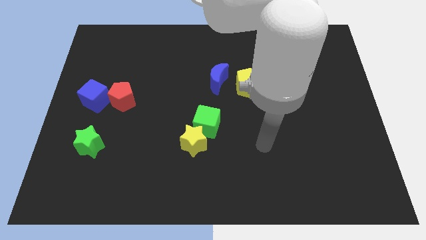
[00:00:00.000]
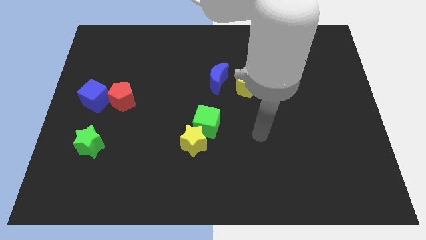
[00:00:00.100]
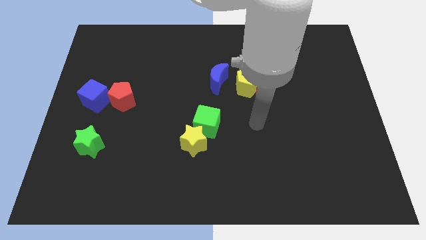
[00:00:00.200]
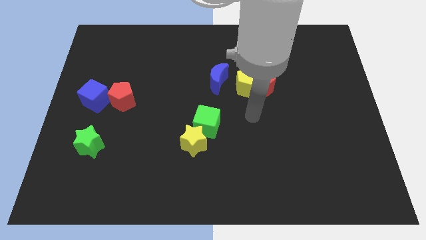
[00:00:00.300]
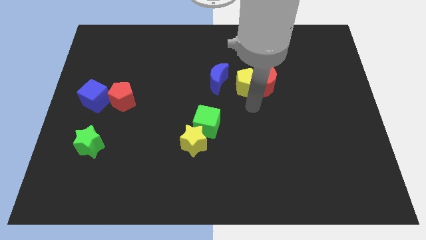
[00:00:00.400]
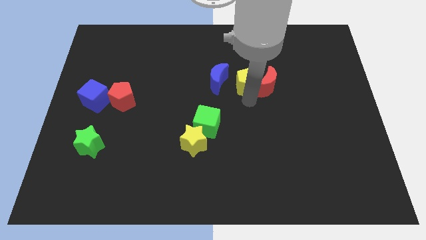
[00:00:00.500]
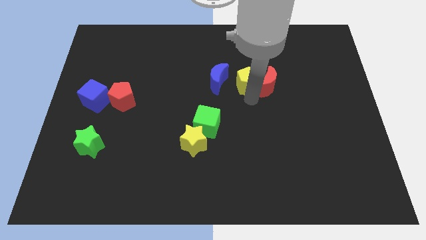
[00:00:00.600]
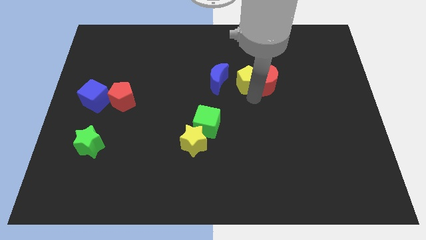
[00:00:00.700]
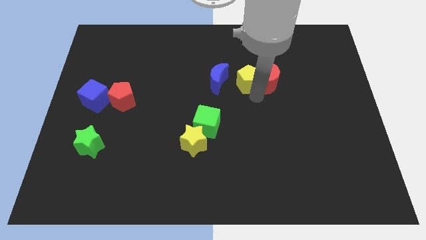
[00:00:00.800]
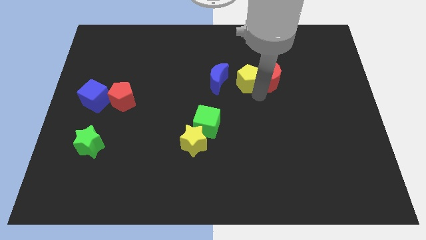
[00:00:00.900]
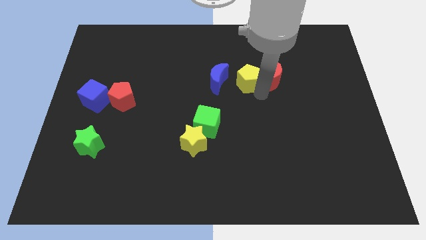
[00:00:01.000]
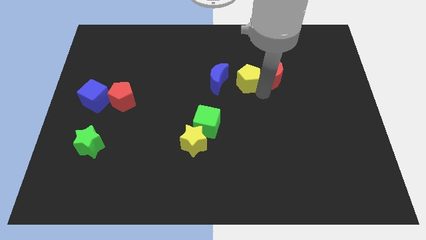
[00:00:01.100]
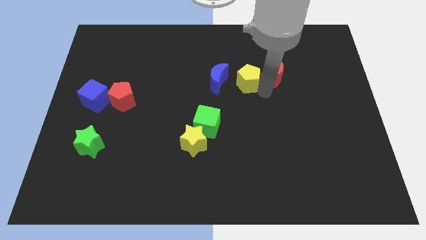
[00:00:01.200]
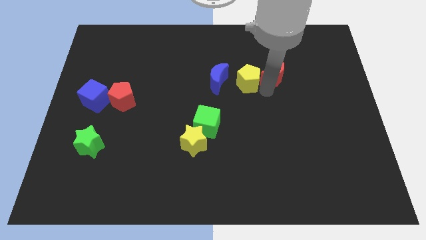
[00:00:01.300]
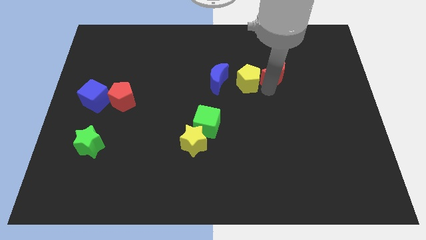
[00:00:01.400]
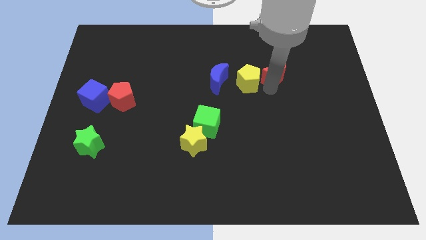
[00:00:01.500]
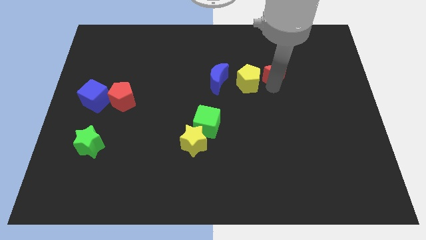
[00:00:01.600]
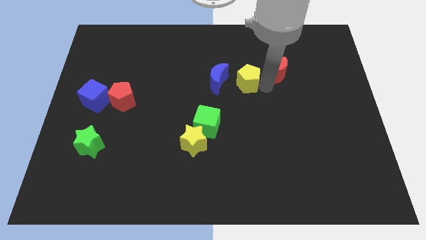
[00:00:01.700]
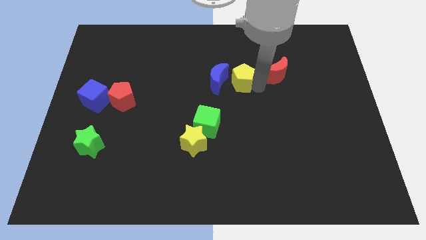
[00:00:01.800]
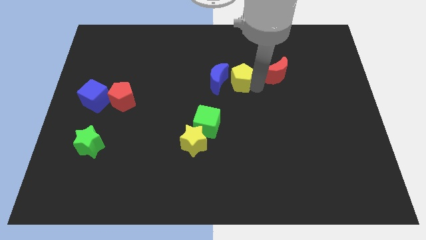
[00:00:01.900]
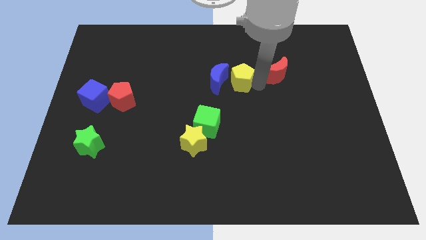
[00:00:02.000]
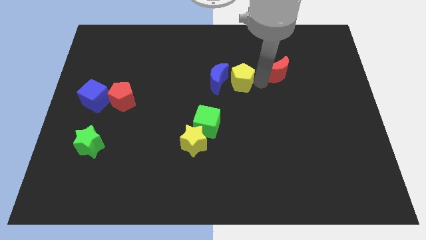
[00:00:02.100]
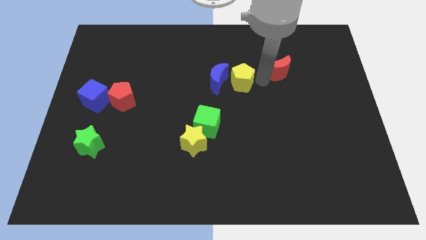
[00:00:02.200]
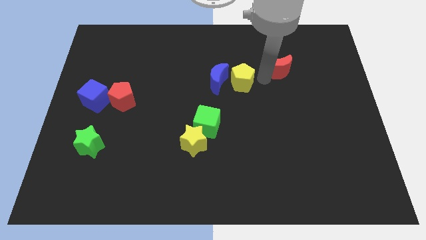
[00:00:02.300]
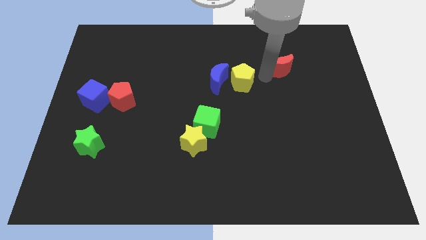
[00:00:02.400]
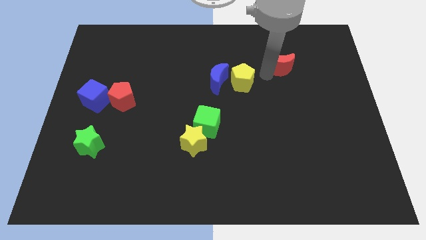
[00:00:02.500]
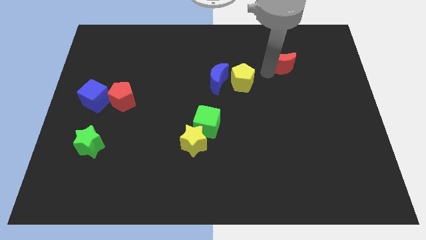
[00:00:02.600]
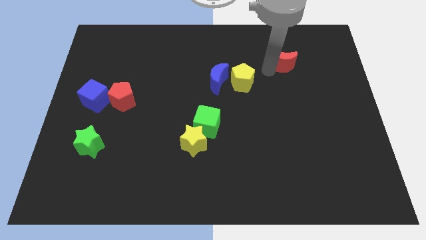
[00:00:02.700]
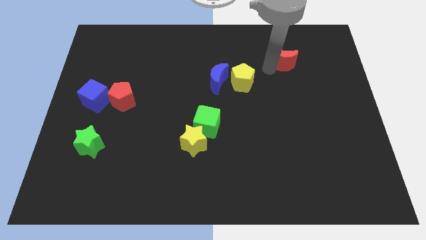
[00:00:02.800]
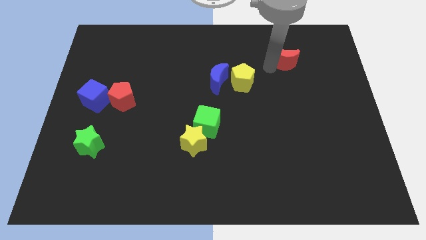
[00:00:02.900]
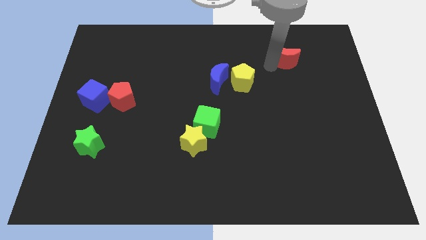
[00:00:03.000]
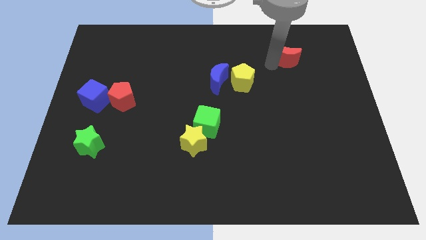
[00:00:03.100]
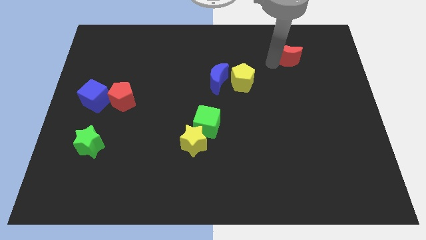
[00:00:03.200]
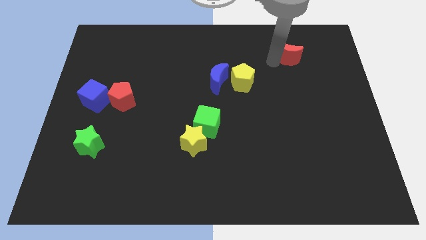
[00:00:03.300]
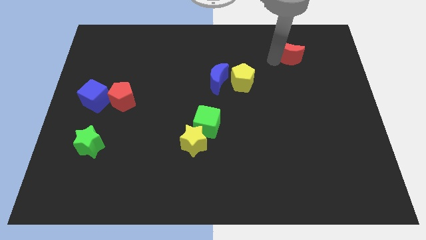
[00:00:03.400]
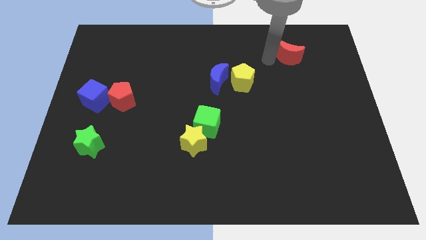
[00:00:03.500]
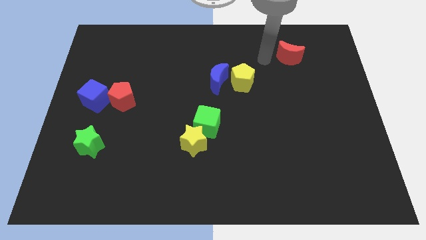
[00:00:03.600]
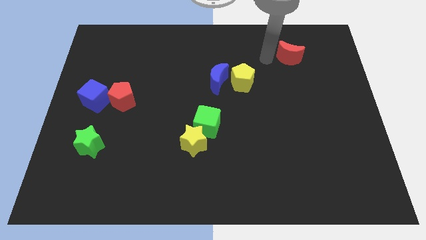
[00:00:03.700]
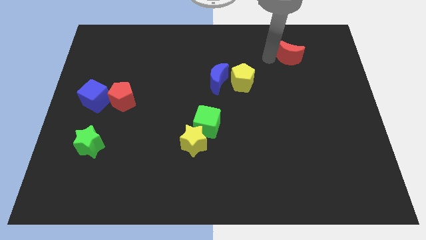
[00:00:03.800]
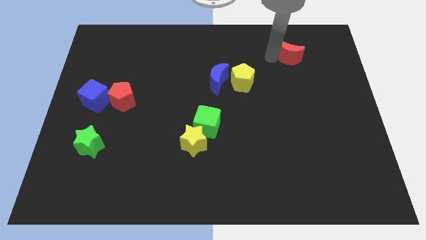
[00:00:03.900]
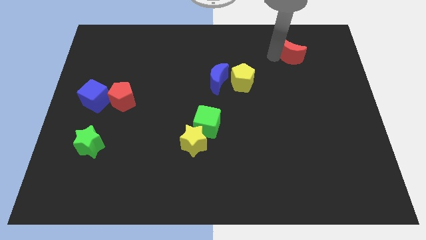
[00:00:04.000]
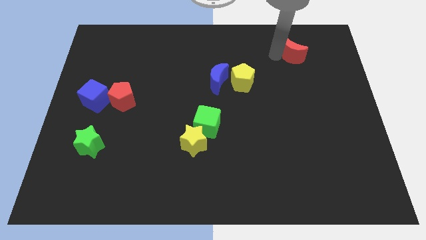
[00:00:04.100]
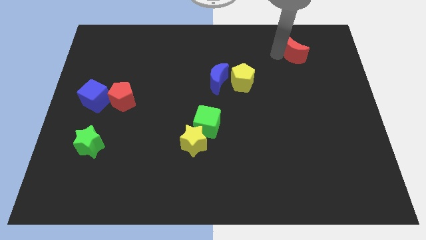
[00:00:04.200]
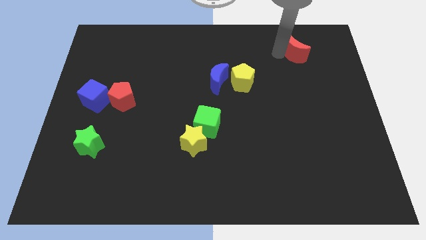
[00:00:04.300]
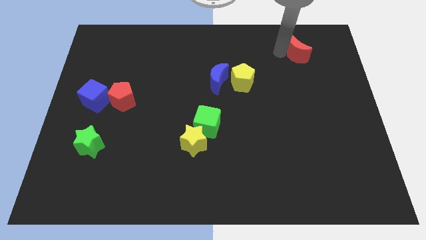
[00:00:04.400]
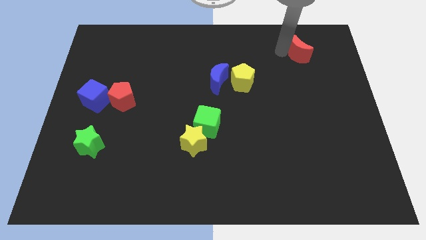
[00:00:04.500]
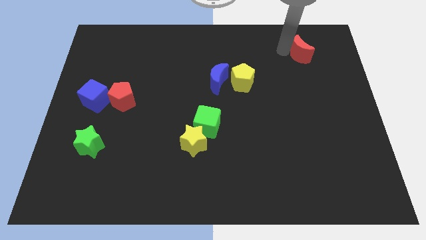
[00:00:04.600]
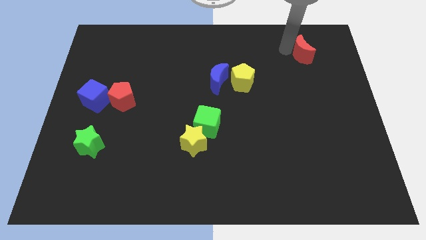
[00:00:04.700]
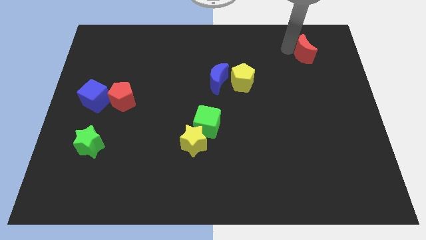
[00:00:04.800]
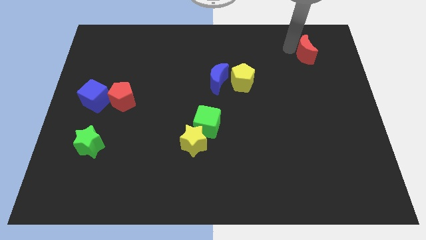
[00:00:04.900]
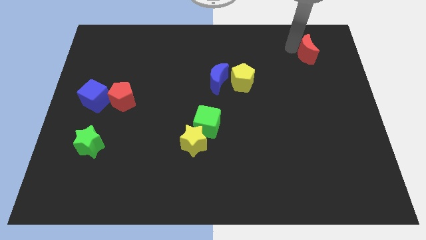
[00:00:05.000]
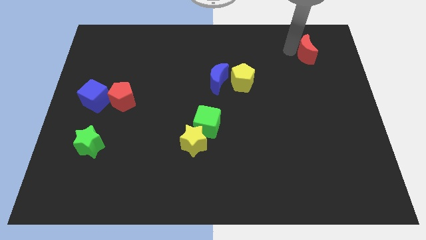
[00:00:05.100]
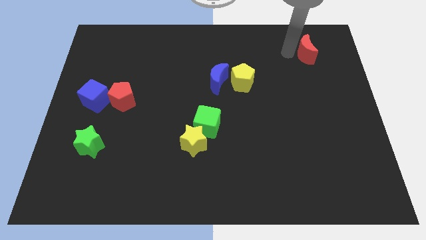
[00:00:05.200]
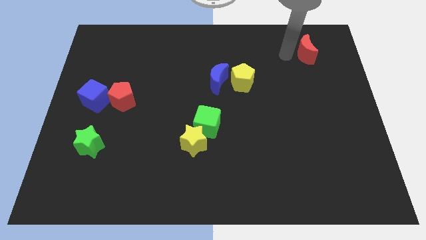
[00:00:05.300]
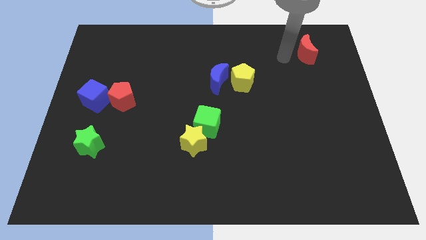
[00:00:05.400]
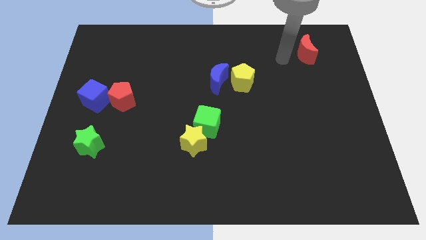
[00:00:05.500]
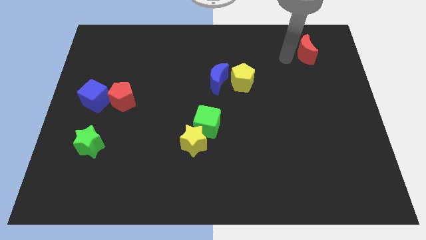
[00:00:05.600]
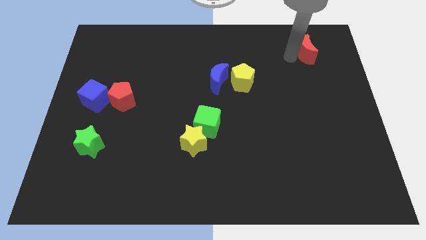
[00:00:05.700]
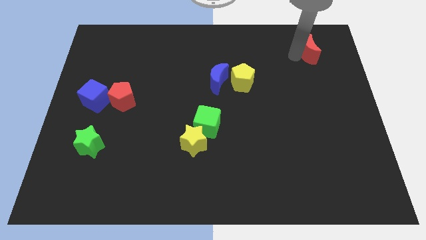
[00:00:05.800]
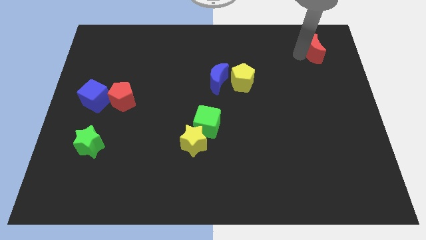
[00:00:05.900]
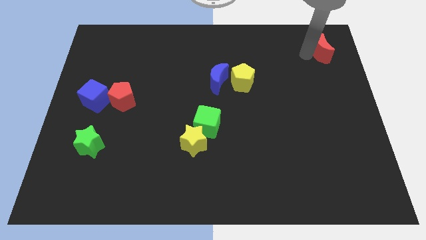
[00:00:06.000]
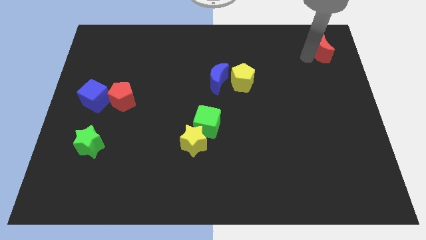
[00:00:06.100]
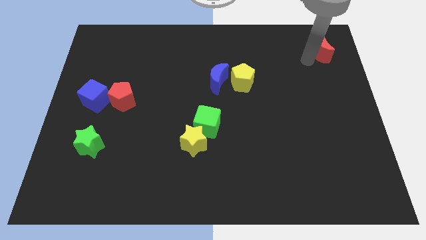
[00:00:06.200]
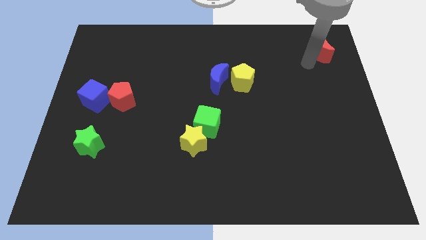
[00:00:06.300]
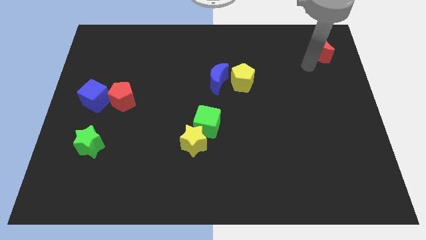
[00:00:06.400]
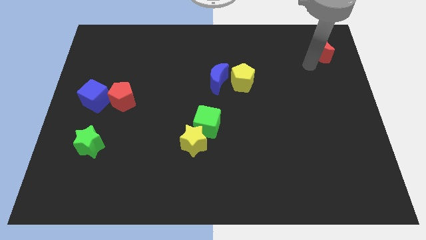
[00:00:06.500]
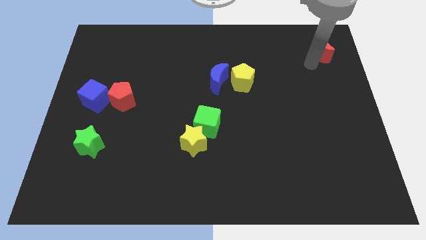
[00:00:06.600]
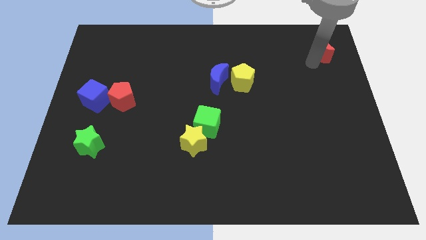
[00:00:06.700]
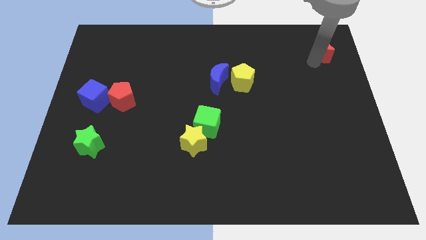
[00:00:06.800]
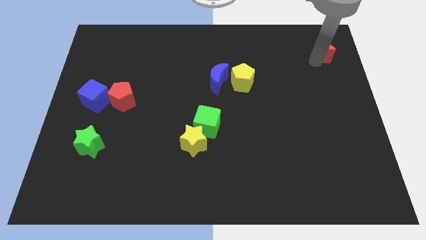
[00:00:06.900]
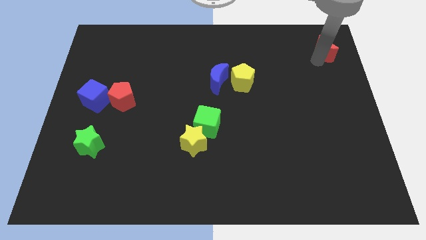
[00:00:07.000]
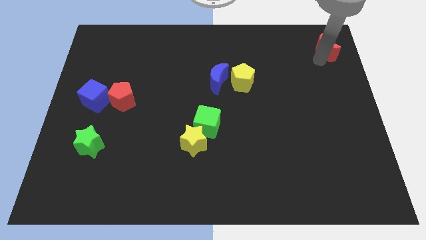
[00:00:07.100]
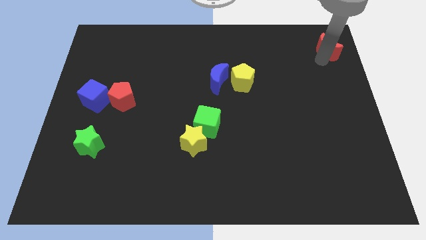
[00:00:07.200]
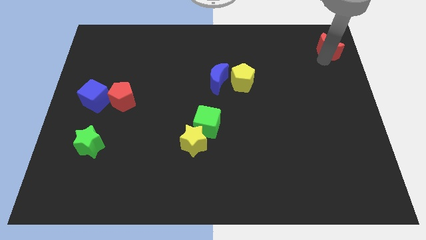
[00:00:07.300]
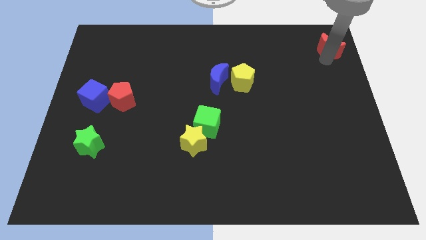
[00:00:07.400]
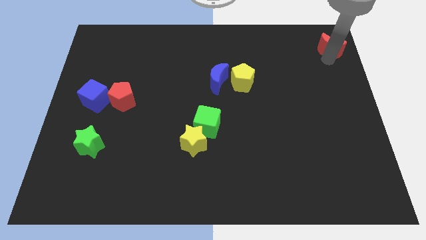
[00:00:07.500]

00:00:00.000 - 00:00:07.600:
put the red moon to the top right of the board

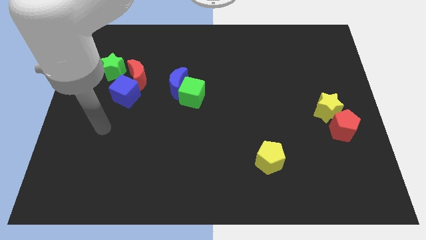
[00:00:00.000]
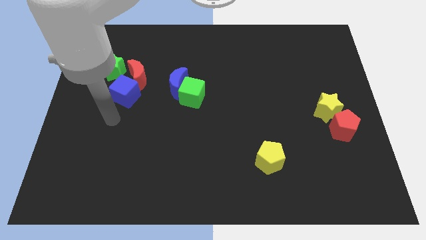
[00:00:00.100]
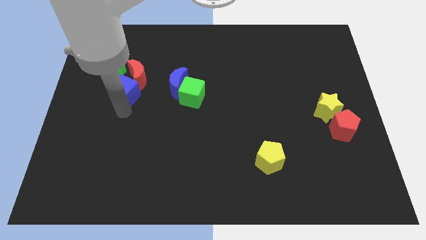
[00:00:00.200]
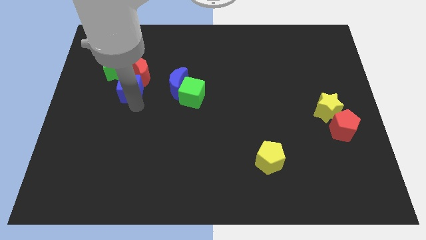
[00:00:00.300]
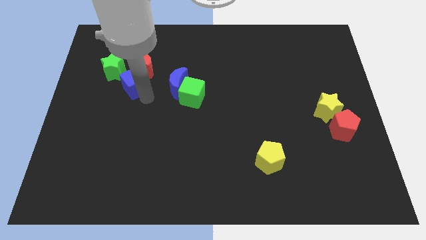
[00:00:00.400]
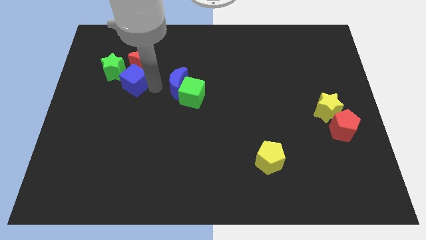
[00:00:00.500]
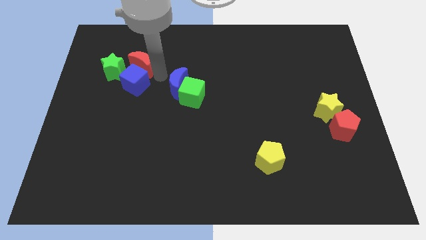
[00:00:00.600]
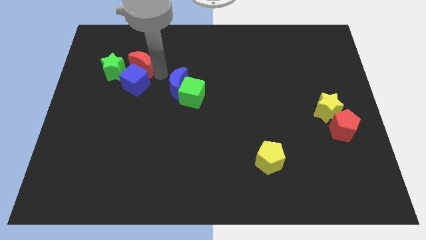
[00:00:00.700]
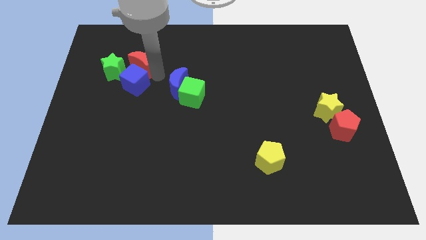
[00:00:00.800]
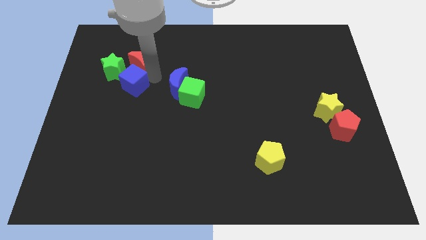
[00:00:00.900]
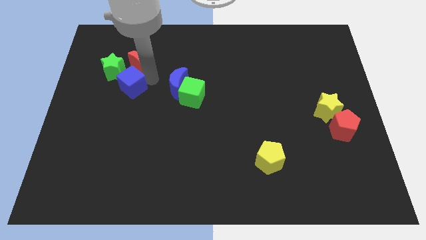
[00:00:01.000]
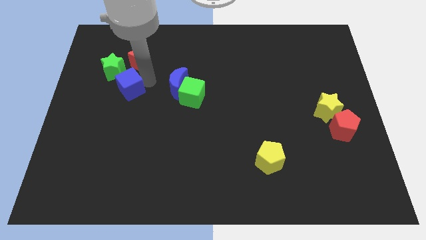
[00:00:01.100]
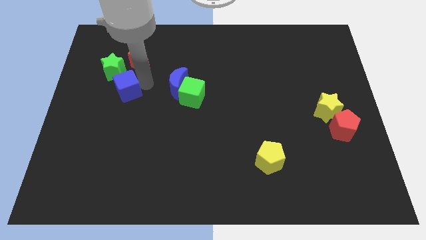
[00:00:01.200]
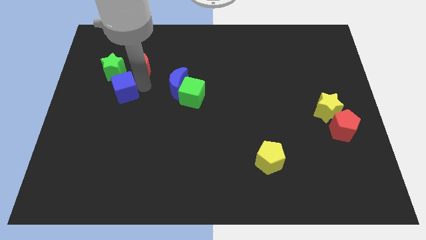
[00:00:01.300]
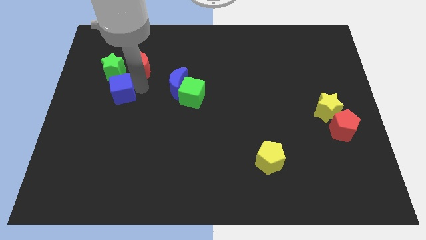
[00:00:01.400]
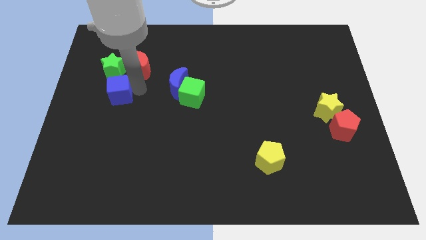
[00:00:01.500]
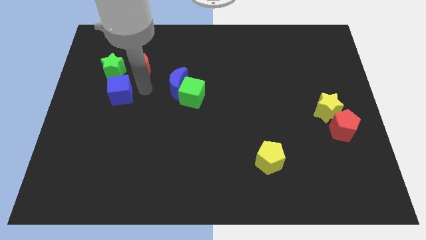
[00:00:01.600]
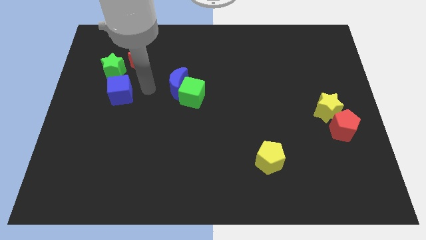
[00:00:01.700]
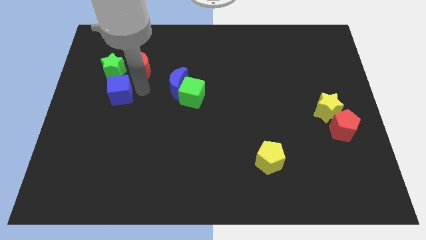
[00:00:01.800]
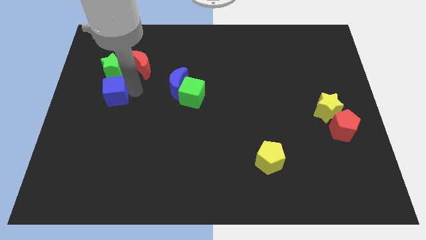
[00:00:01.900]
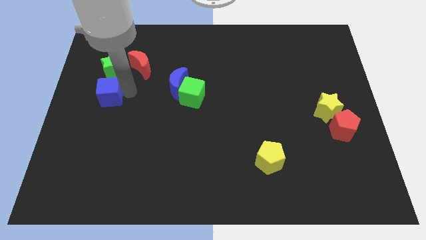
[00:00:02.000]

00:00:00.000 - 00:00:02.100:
put the blue cube to the left side of the board
